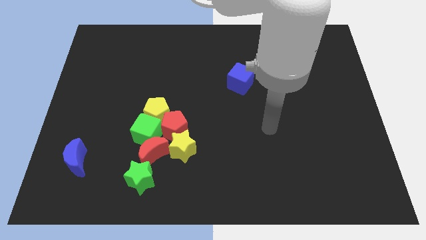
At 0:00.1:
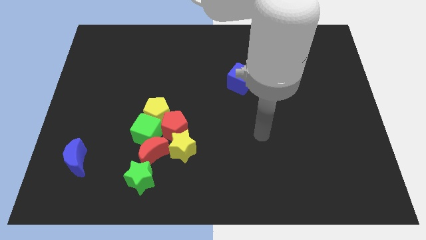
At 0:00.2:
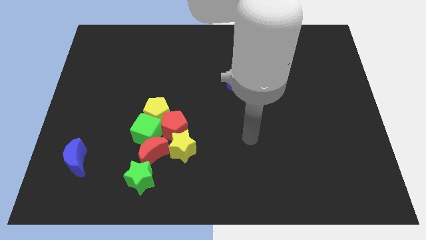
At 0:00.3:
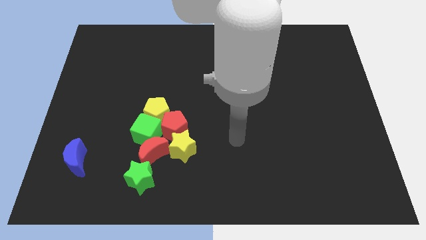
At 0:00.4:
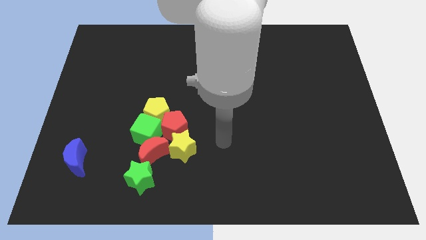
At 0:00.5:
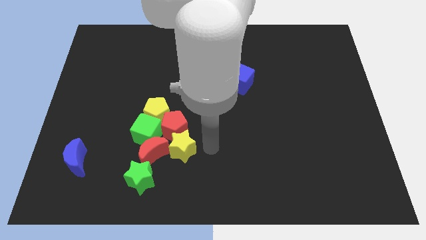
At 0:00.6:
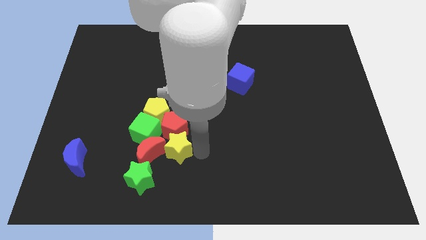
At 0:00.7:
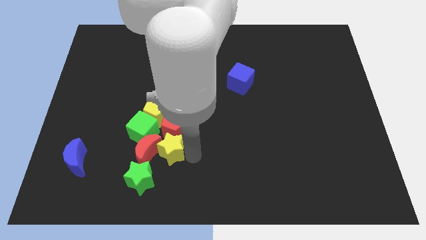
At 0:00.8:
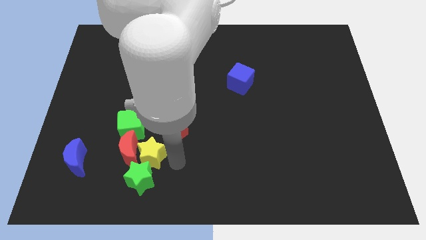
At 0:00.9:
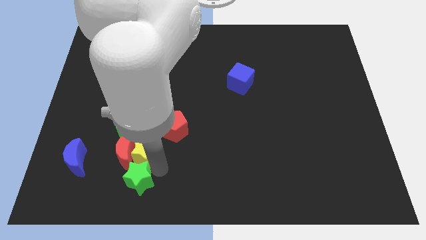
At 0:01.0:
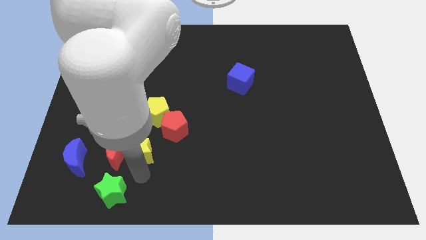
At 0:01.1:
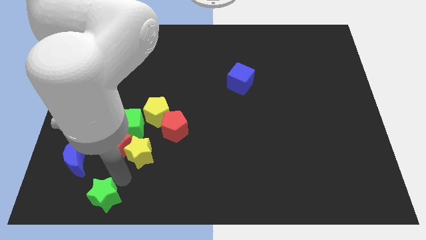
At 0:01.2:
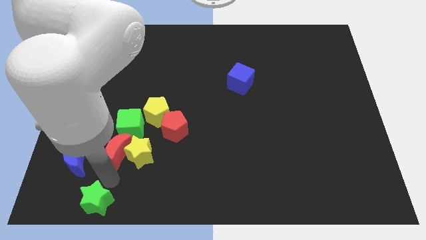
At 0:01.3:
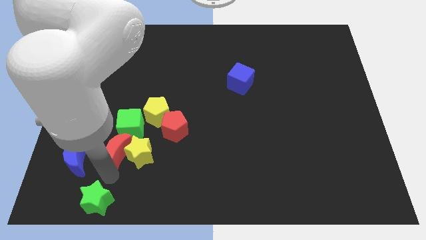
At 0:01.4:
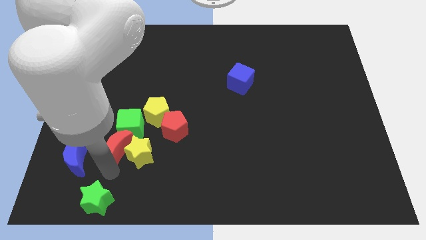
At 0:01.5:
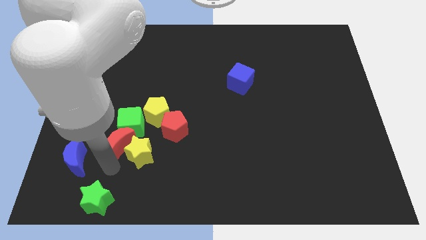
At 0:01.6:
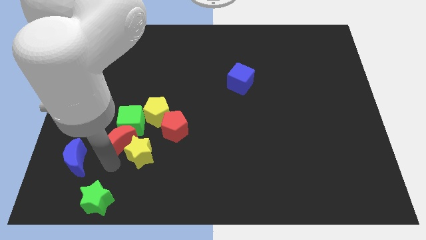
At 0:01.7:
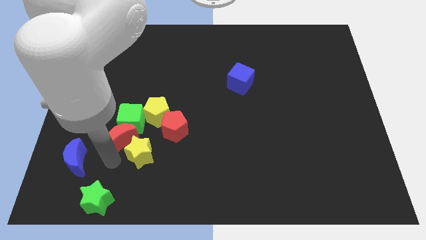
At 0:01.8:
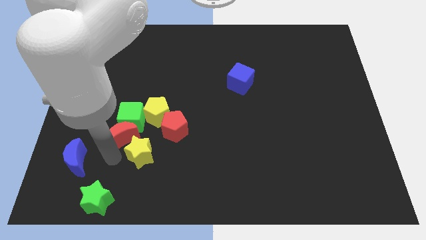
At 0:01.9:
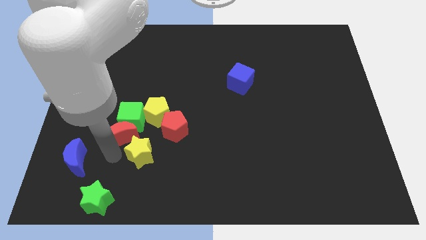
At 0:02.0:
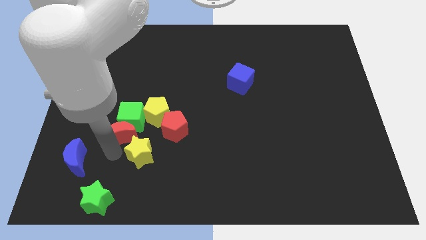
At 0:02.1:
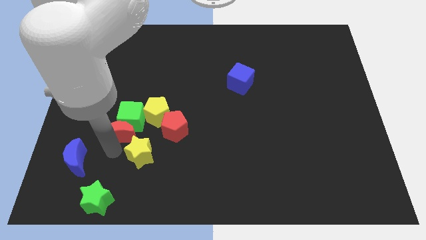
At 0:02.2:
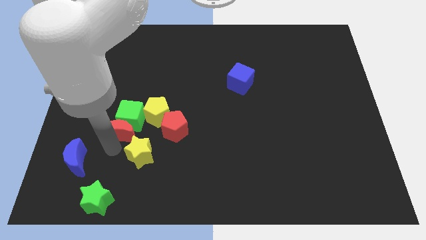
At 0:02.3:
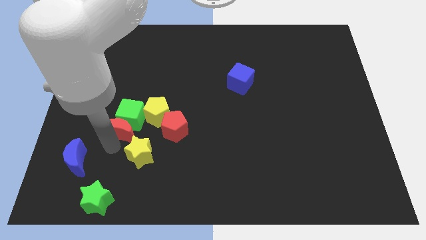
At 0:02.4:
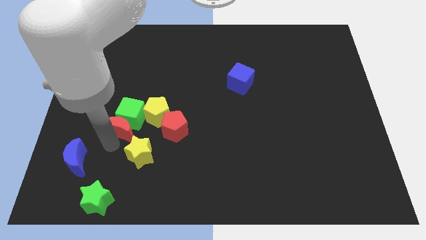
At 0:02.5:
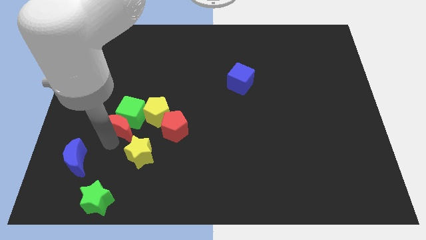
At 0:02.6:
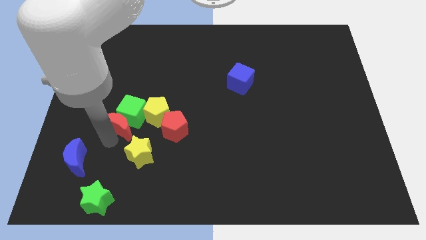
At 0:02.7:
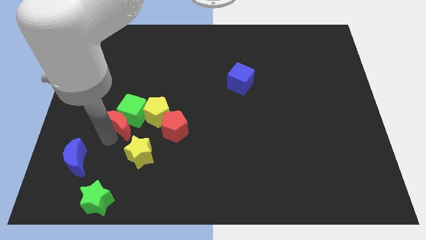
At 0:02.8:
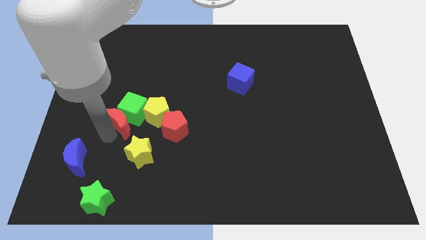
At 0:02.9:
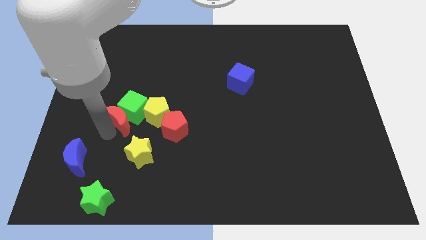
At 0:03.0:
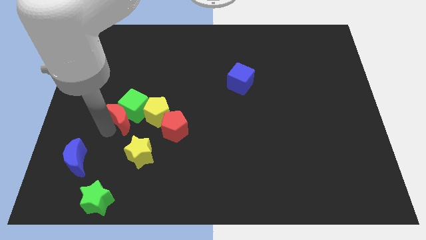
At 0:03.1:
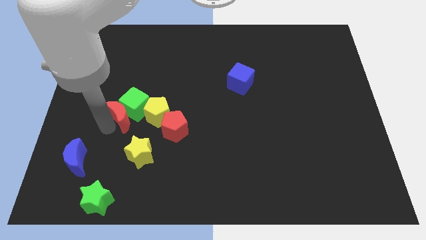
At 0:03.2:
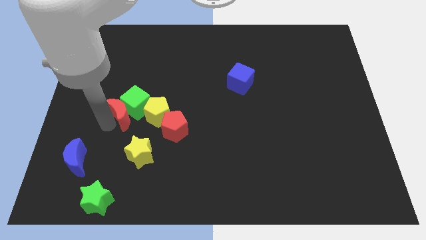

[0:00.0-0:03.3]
slightly push the red moon up

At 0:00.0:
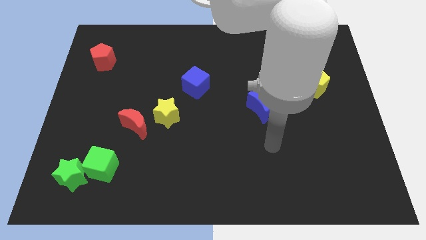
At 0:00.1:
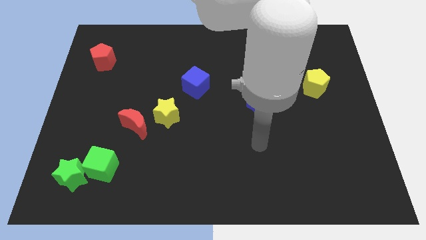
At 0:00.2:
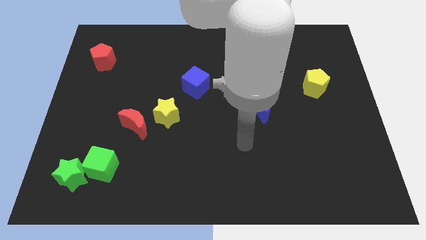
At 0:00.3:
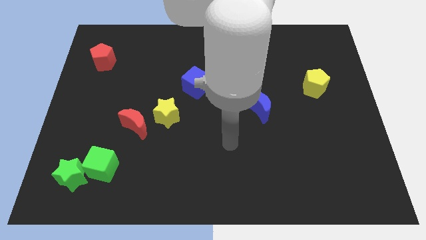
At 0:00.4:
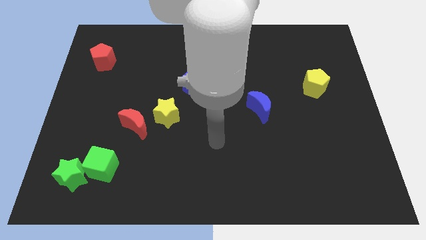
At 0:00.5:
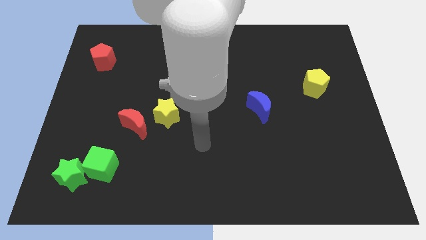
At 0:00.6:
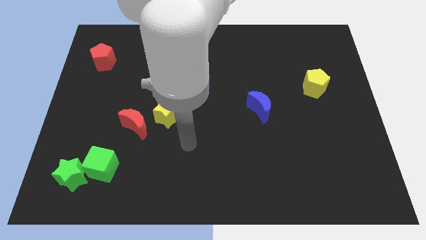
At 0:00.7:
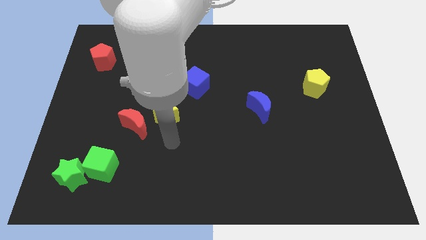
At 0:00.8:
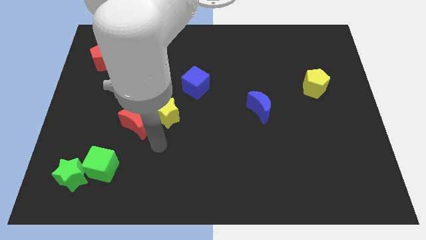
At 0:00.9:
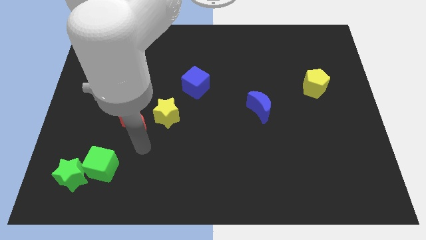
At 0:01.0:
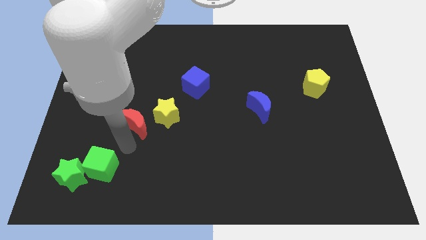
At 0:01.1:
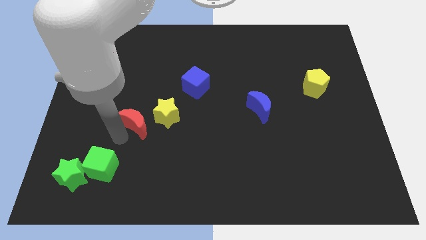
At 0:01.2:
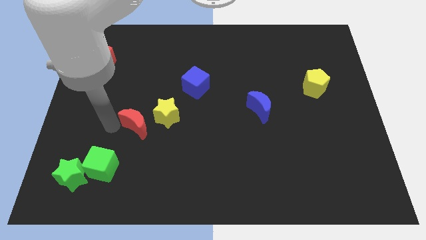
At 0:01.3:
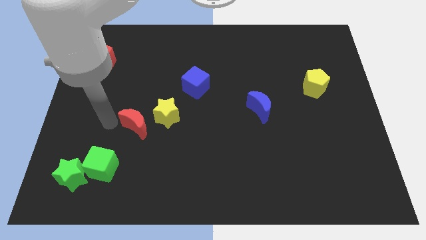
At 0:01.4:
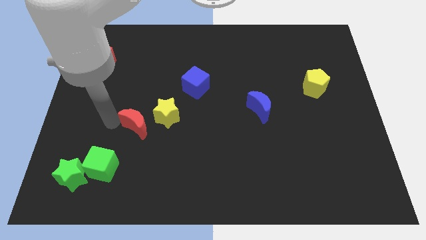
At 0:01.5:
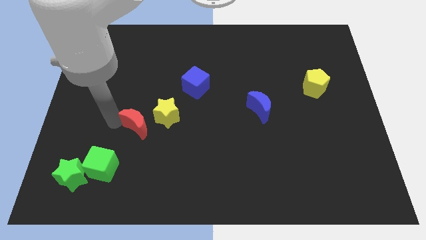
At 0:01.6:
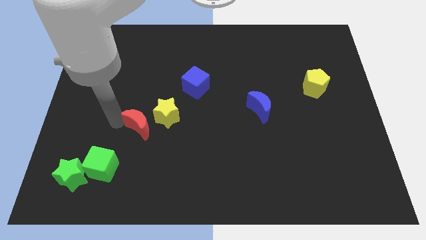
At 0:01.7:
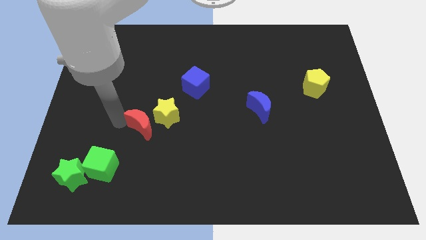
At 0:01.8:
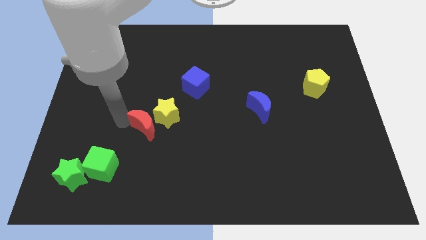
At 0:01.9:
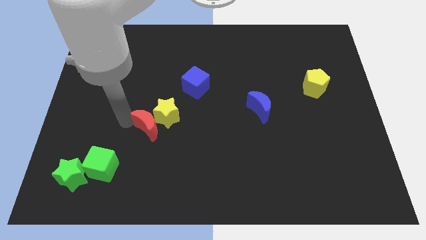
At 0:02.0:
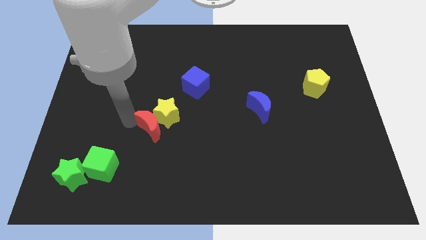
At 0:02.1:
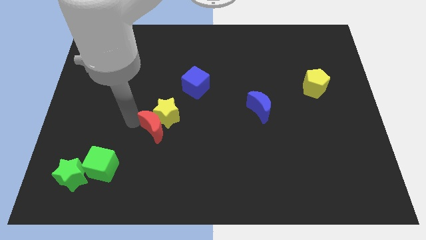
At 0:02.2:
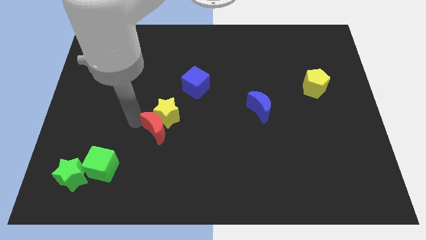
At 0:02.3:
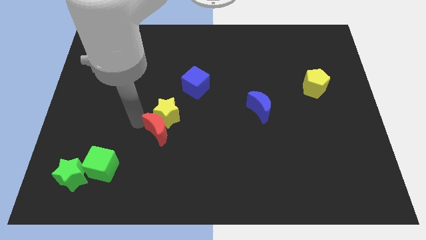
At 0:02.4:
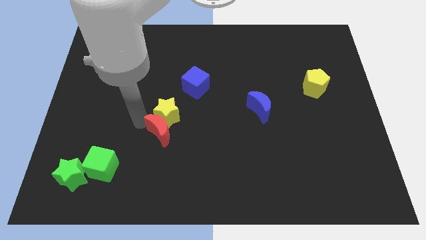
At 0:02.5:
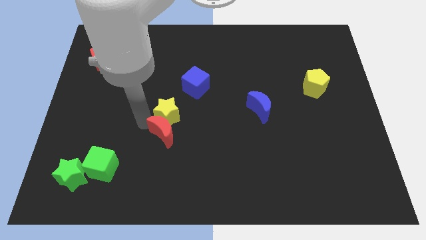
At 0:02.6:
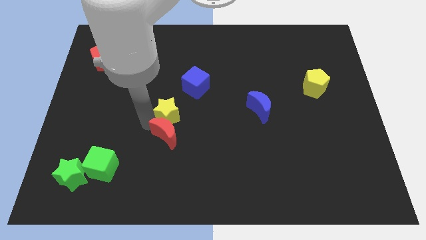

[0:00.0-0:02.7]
move the red moon to the right a bit

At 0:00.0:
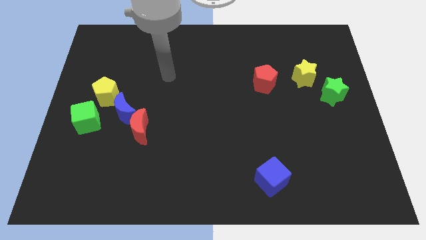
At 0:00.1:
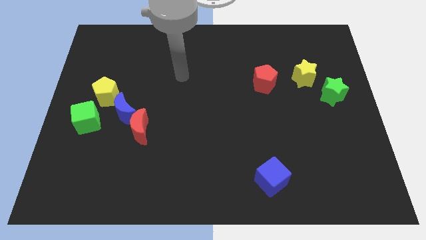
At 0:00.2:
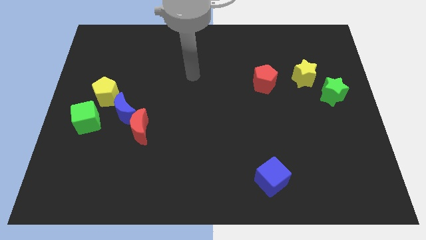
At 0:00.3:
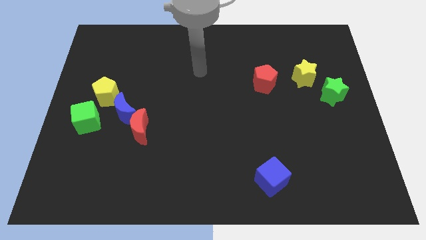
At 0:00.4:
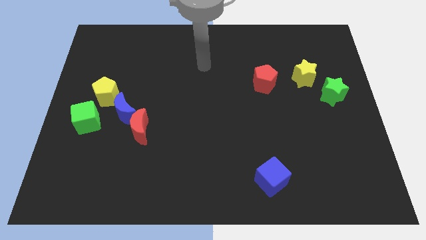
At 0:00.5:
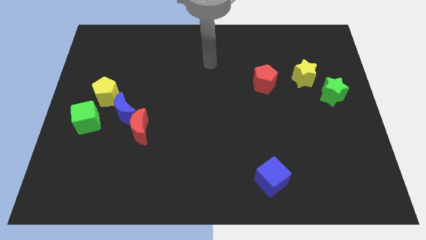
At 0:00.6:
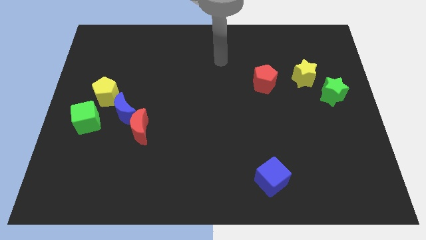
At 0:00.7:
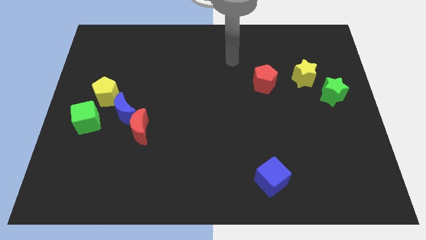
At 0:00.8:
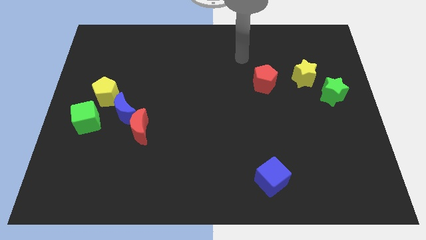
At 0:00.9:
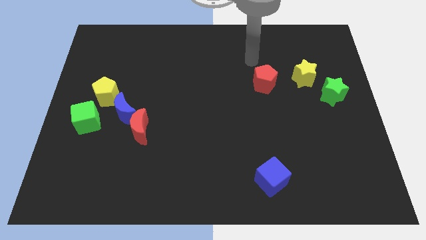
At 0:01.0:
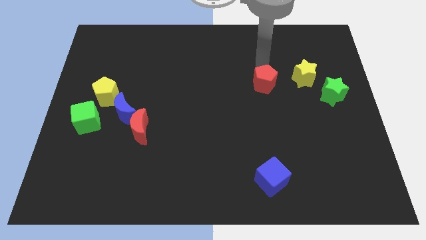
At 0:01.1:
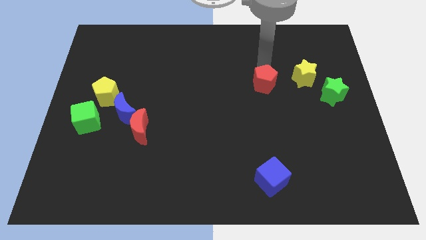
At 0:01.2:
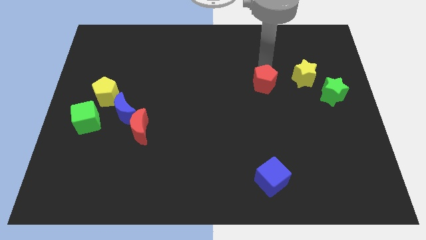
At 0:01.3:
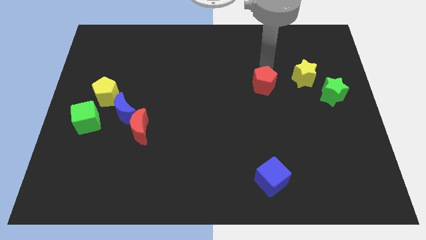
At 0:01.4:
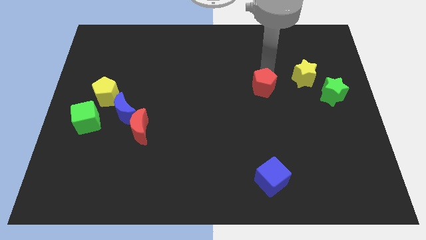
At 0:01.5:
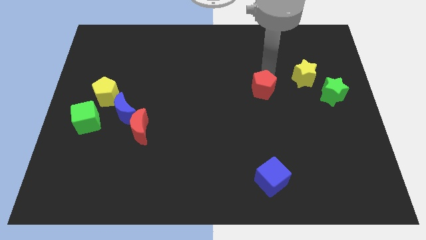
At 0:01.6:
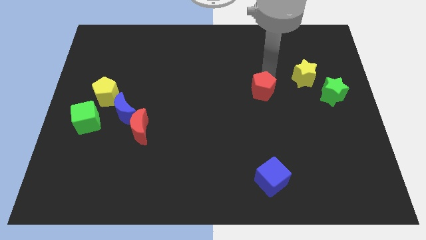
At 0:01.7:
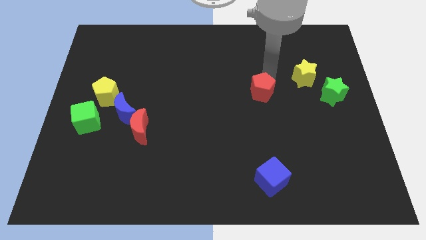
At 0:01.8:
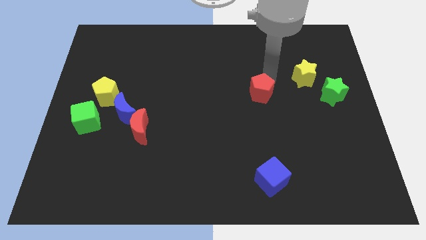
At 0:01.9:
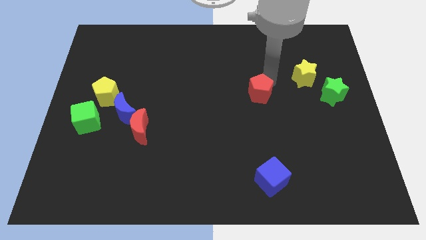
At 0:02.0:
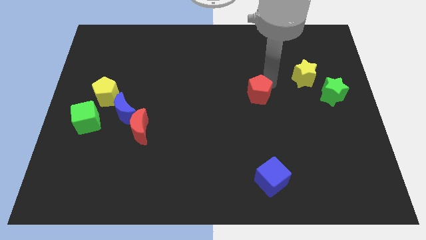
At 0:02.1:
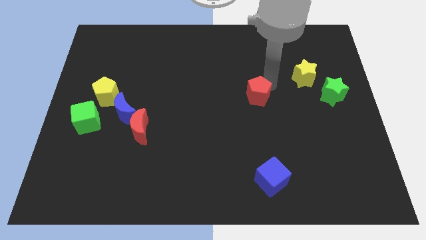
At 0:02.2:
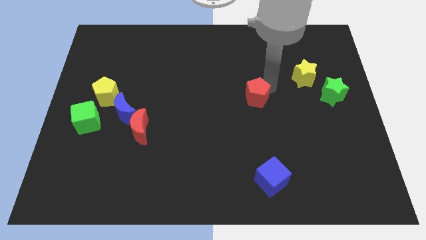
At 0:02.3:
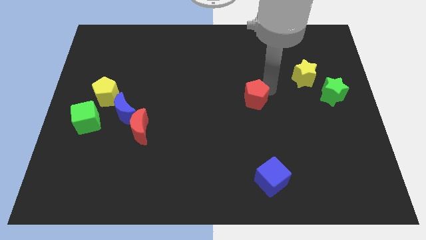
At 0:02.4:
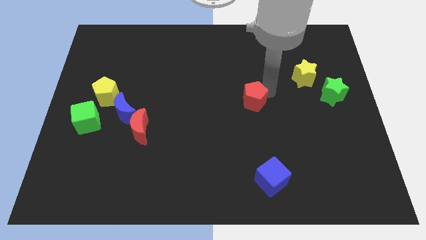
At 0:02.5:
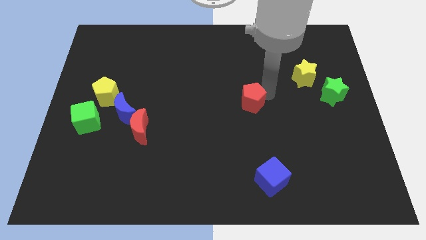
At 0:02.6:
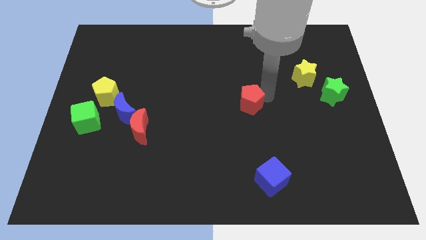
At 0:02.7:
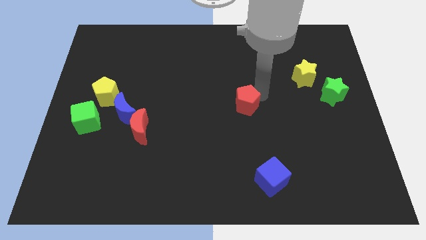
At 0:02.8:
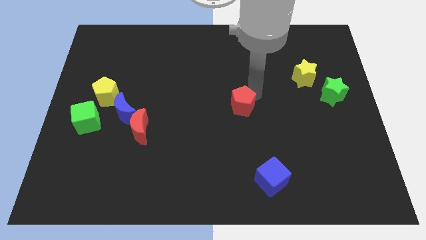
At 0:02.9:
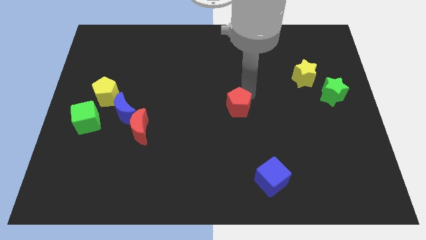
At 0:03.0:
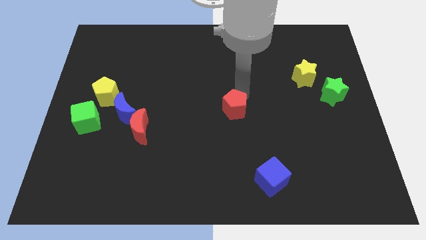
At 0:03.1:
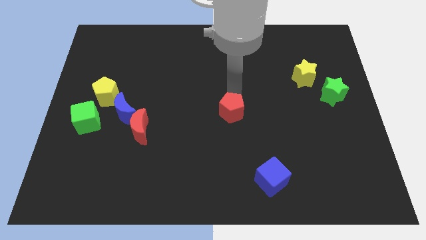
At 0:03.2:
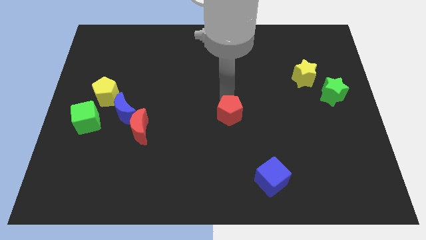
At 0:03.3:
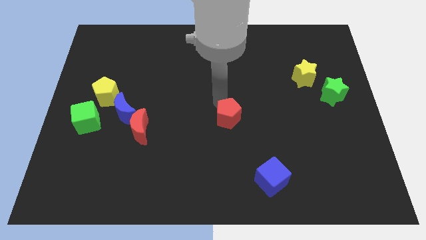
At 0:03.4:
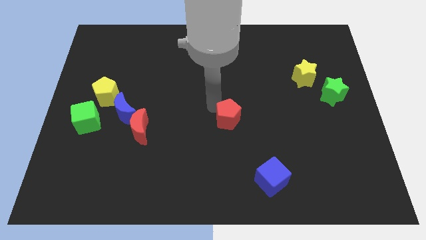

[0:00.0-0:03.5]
slide the red pentagon down slightly
